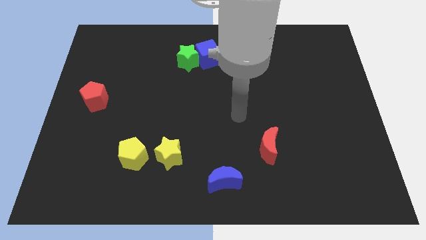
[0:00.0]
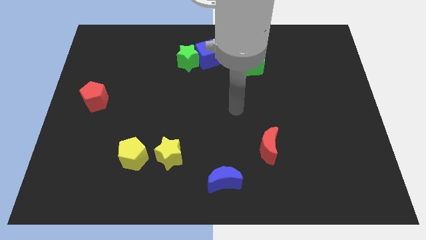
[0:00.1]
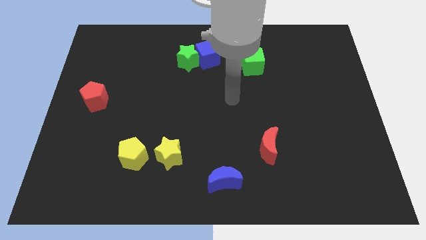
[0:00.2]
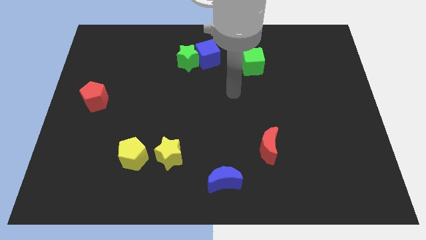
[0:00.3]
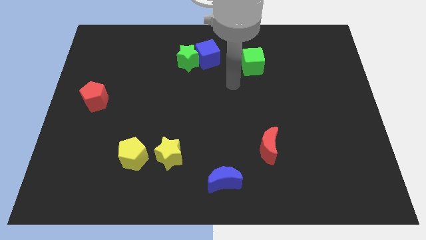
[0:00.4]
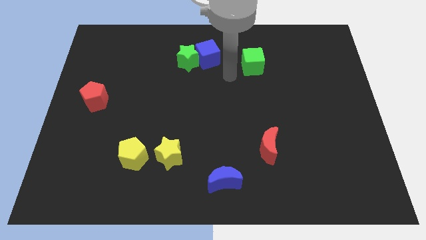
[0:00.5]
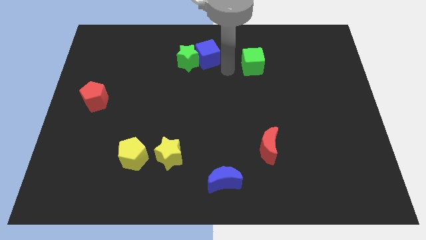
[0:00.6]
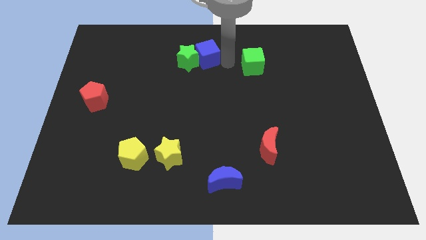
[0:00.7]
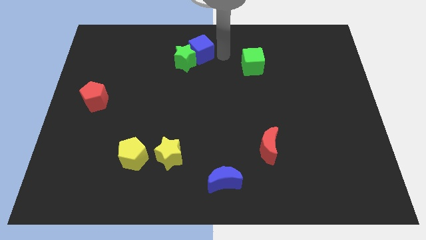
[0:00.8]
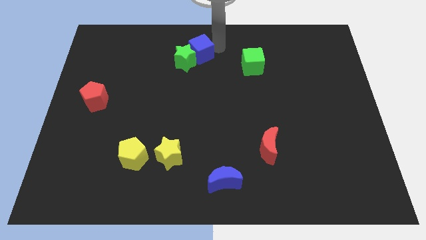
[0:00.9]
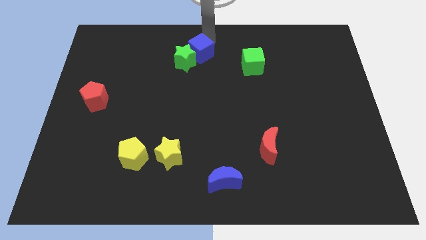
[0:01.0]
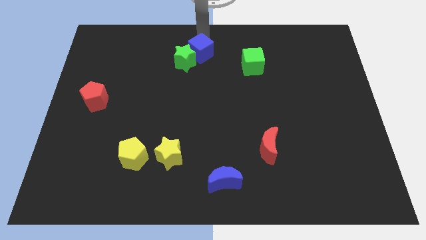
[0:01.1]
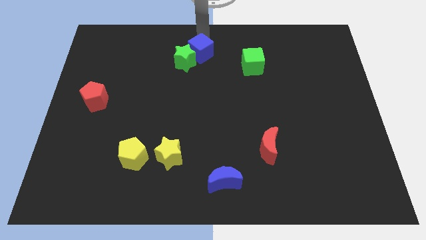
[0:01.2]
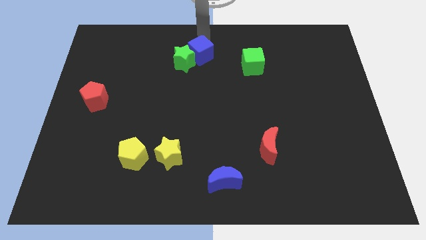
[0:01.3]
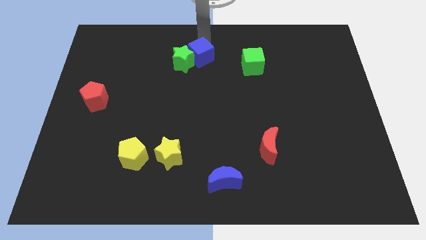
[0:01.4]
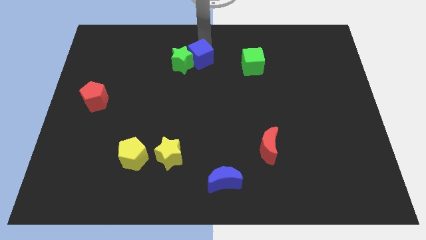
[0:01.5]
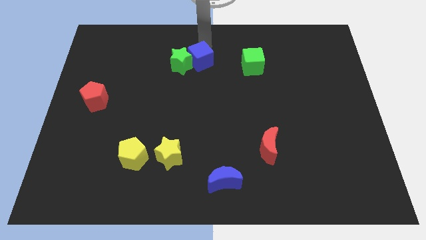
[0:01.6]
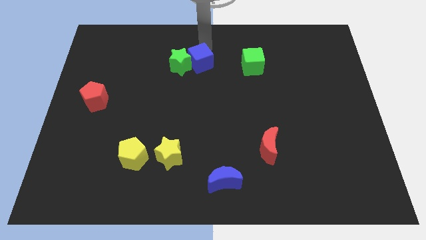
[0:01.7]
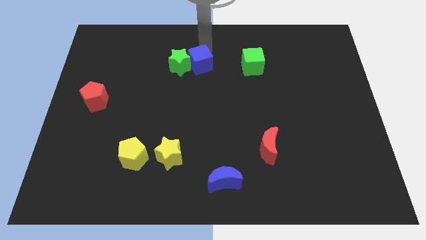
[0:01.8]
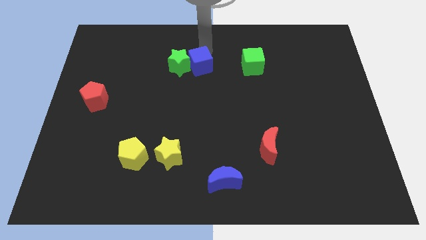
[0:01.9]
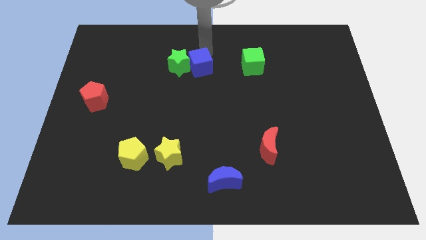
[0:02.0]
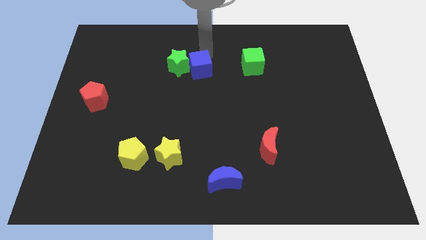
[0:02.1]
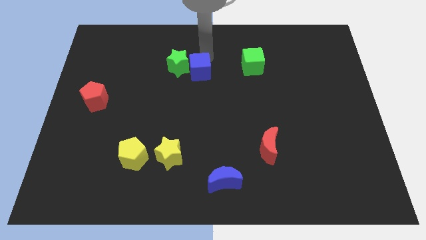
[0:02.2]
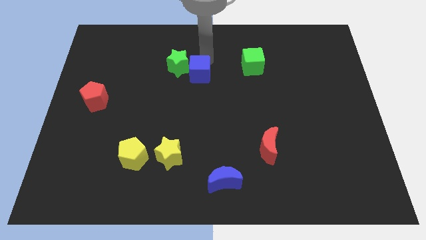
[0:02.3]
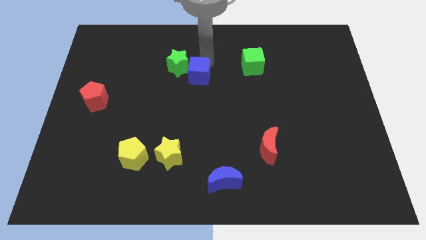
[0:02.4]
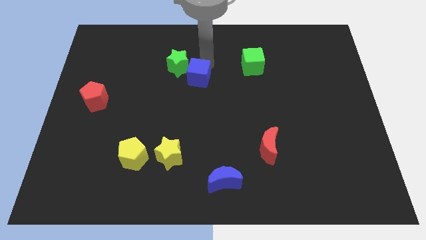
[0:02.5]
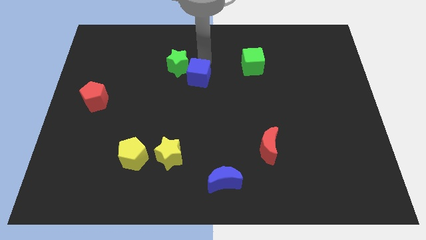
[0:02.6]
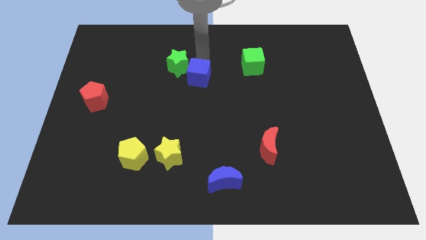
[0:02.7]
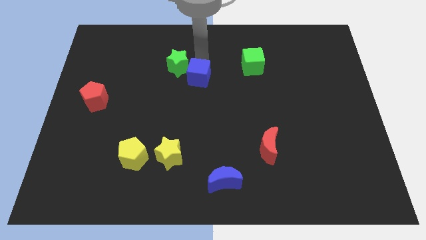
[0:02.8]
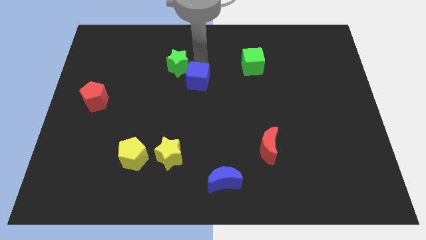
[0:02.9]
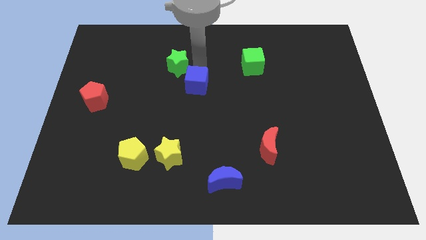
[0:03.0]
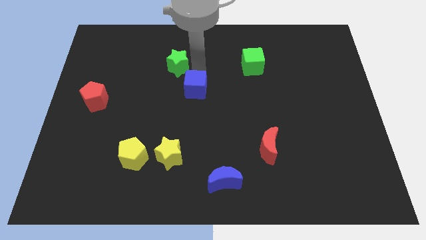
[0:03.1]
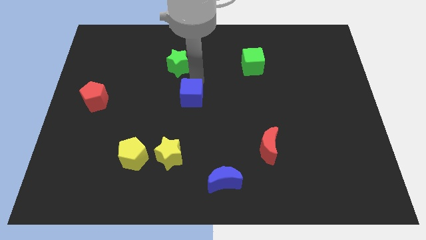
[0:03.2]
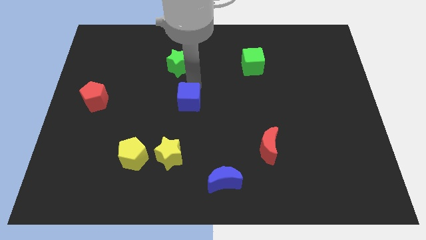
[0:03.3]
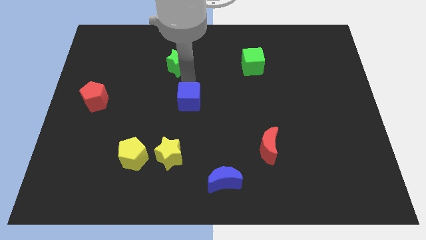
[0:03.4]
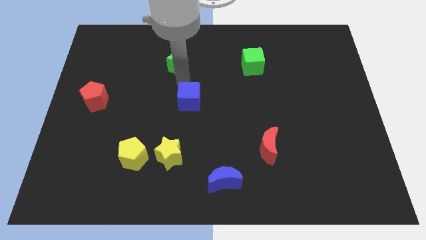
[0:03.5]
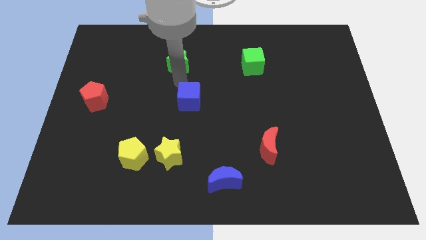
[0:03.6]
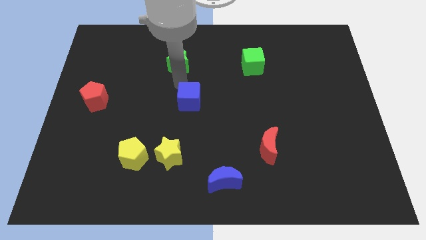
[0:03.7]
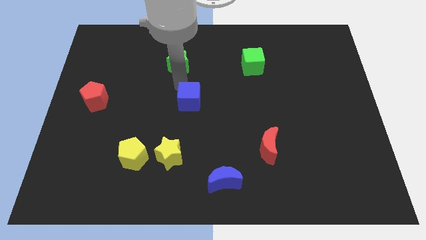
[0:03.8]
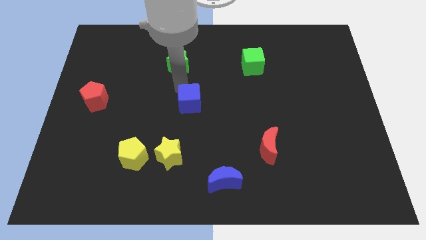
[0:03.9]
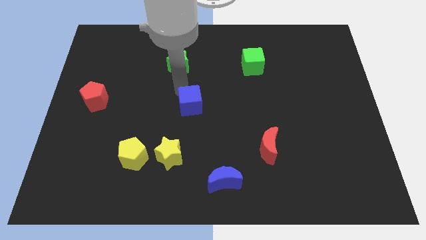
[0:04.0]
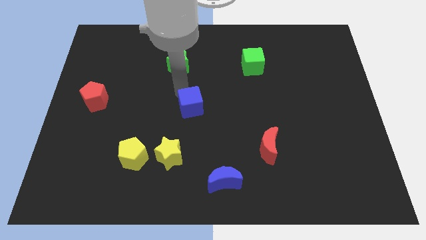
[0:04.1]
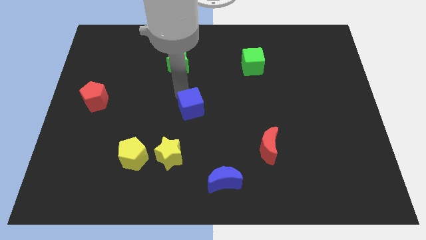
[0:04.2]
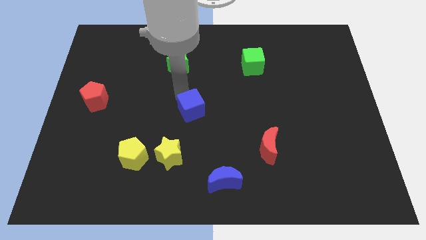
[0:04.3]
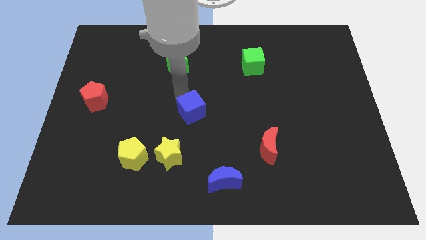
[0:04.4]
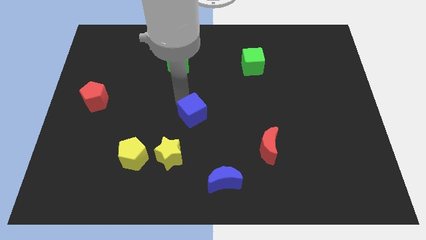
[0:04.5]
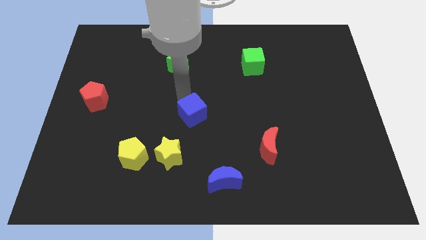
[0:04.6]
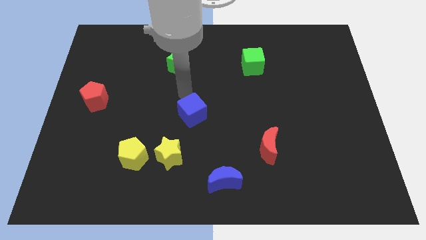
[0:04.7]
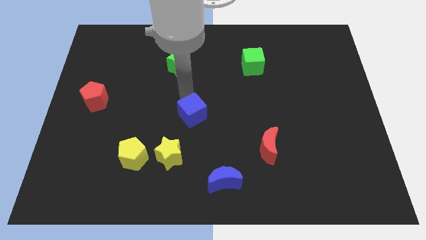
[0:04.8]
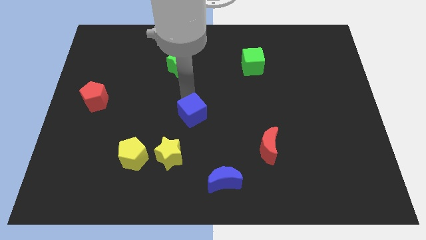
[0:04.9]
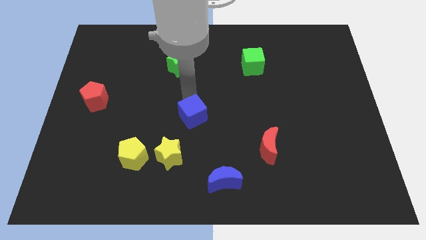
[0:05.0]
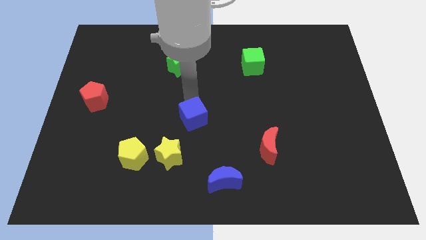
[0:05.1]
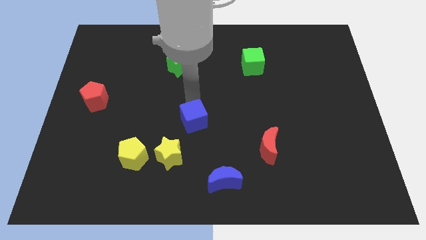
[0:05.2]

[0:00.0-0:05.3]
move the blue cube downwards

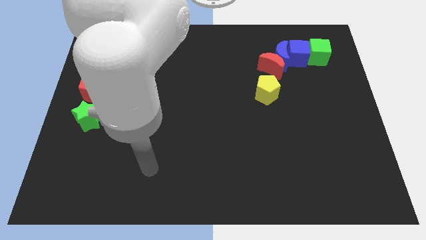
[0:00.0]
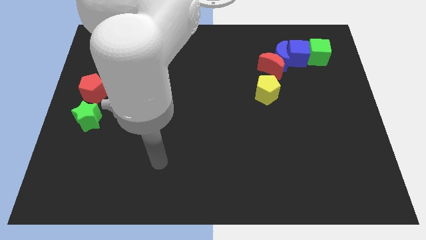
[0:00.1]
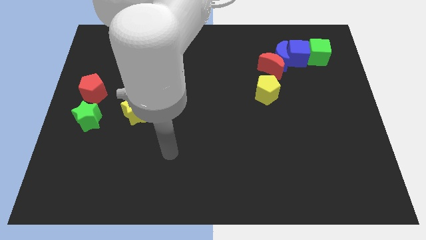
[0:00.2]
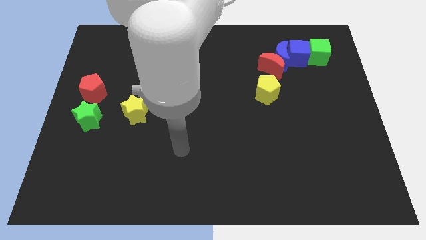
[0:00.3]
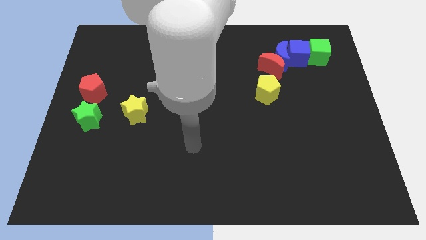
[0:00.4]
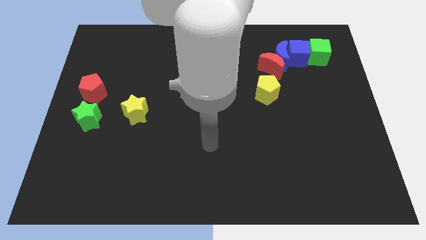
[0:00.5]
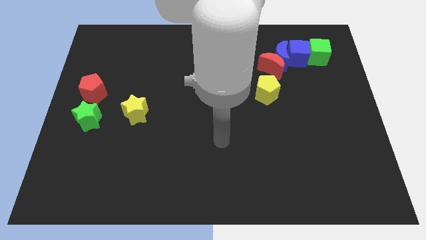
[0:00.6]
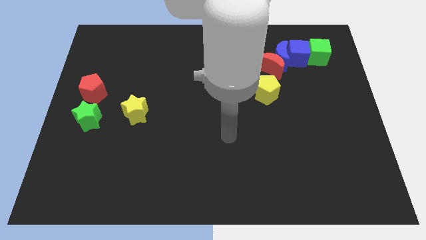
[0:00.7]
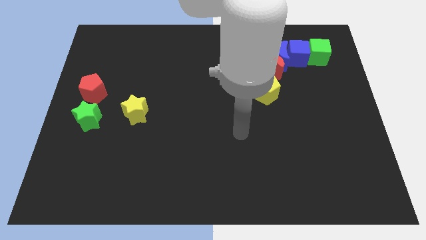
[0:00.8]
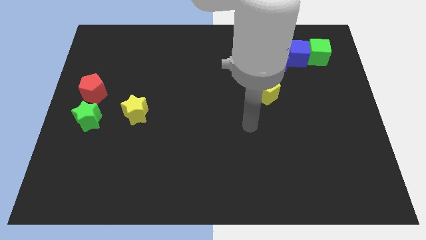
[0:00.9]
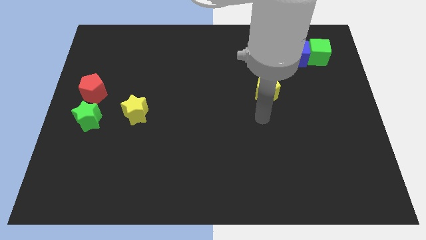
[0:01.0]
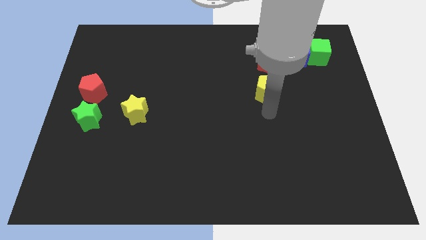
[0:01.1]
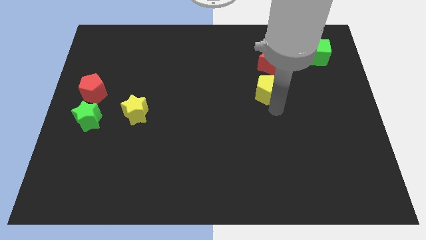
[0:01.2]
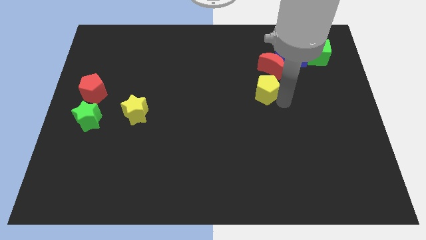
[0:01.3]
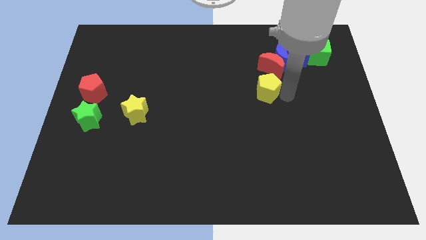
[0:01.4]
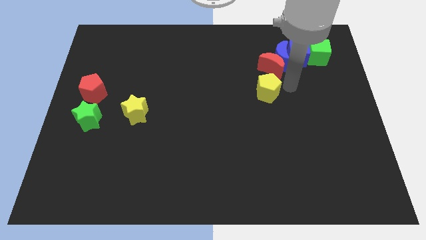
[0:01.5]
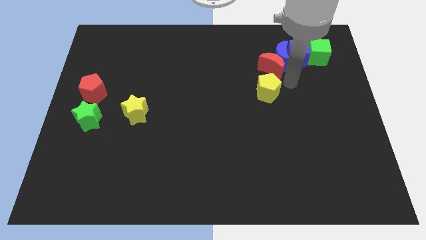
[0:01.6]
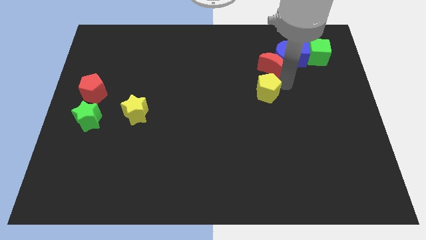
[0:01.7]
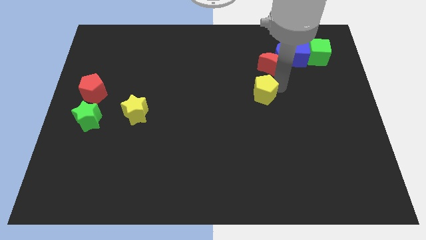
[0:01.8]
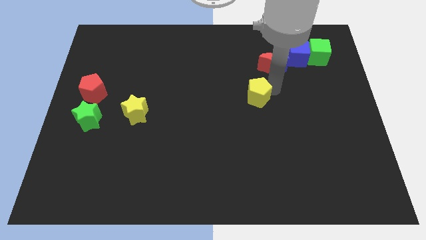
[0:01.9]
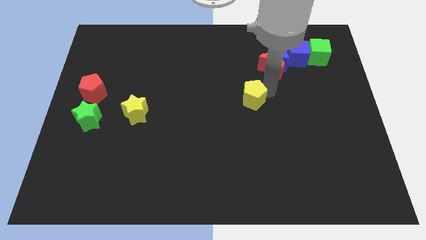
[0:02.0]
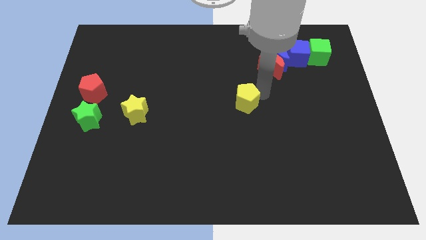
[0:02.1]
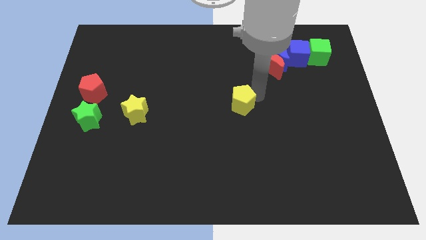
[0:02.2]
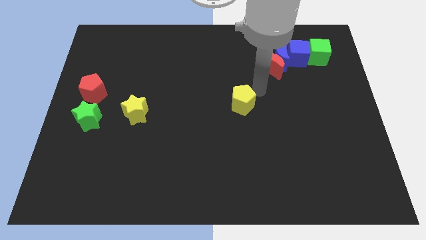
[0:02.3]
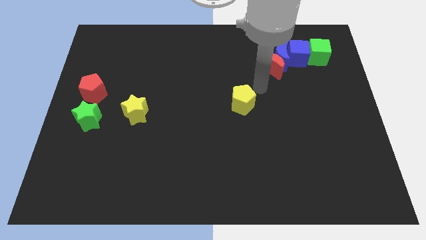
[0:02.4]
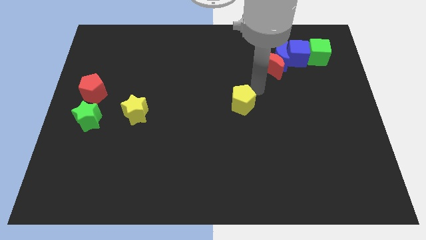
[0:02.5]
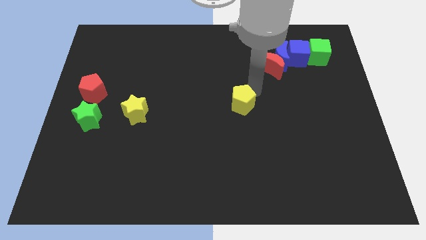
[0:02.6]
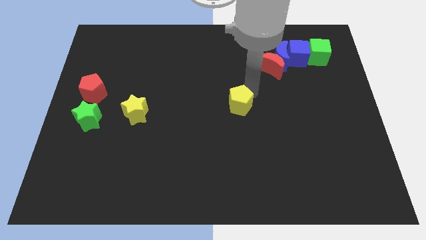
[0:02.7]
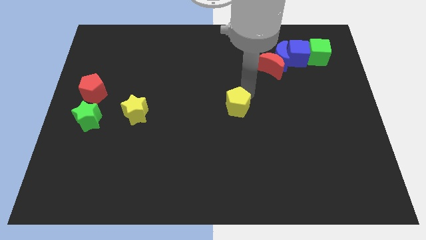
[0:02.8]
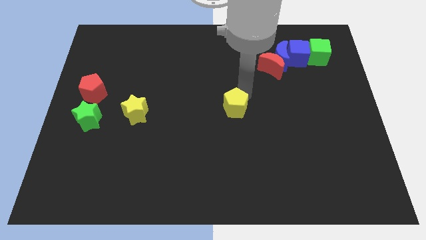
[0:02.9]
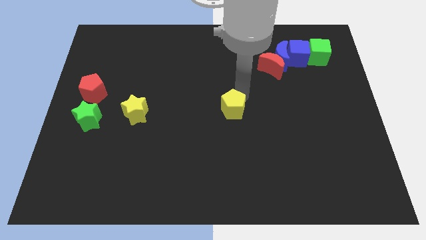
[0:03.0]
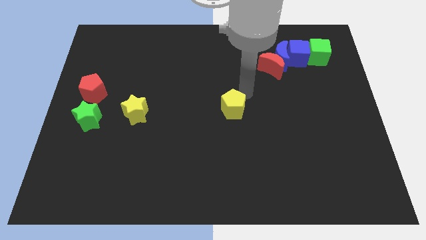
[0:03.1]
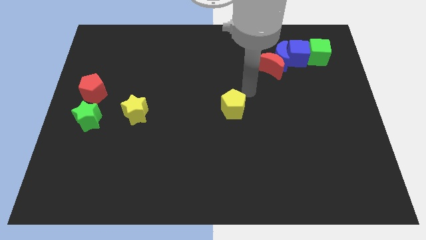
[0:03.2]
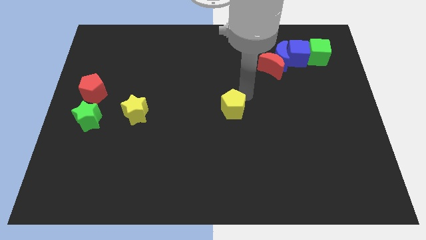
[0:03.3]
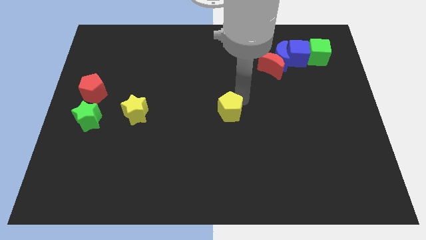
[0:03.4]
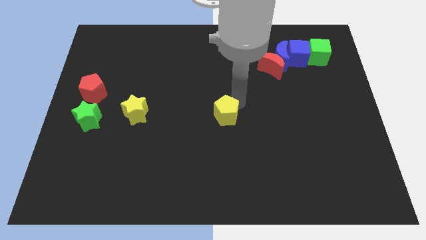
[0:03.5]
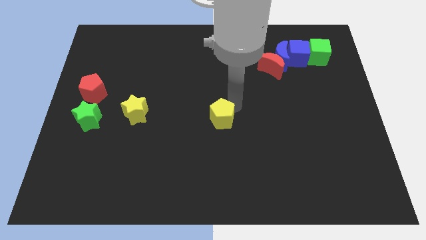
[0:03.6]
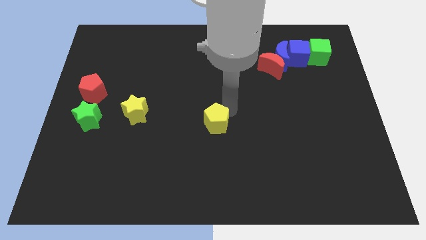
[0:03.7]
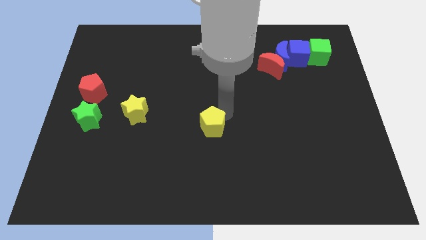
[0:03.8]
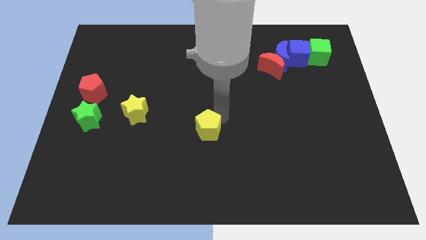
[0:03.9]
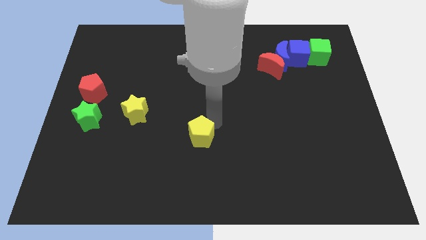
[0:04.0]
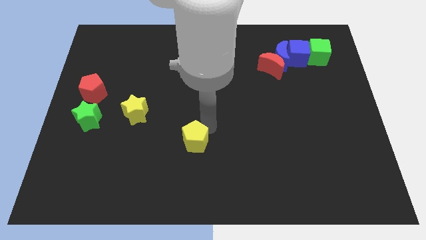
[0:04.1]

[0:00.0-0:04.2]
push the yellow pentagon down and then left
